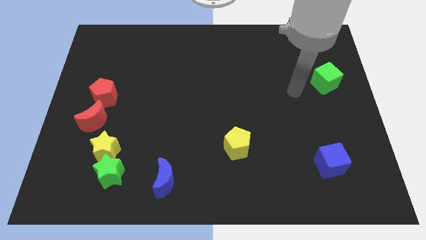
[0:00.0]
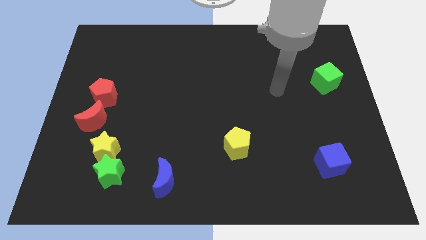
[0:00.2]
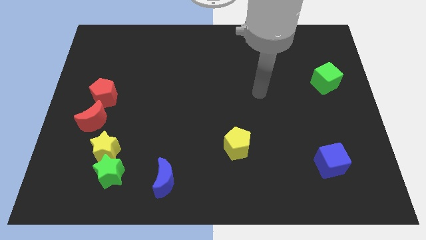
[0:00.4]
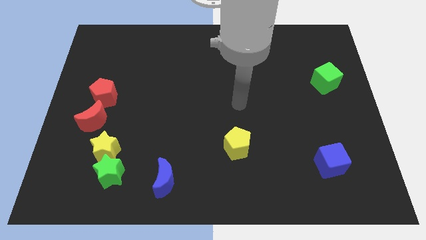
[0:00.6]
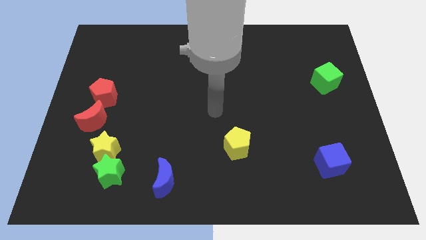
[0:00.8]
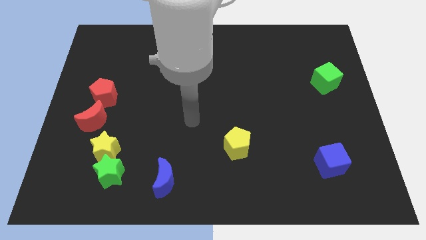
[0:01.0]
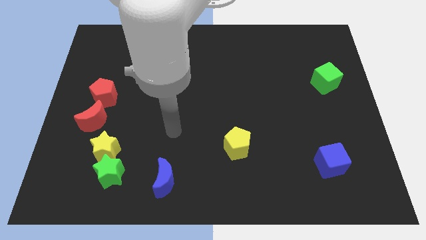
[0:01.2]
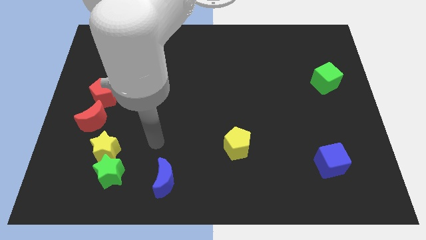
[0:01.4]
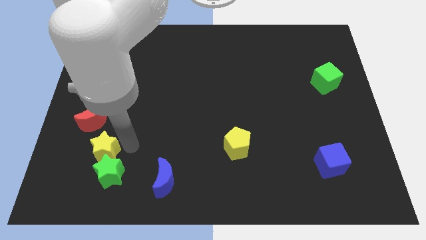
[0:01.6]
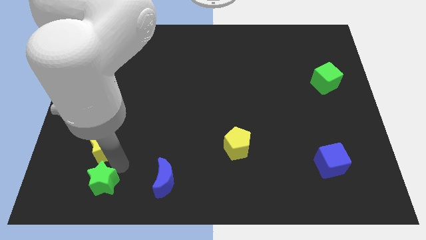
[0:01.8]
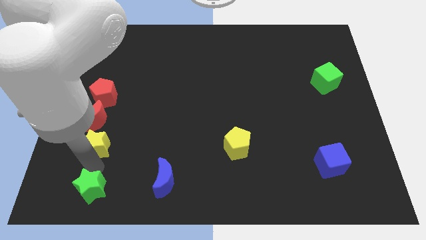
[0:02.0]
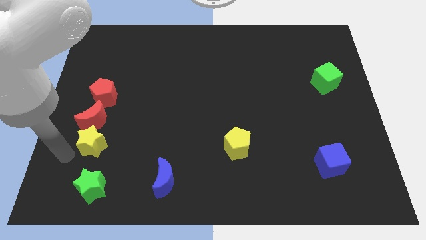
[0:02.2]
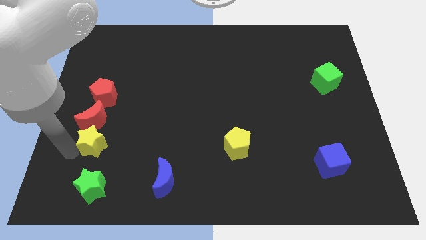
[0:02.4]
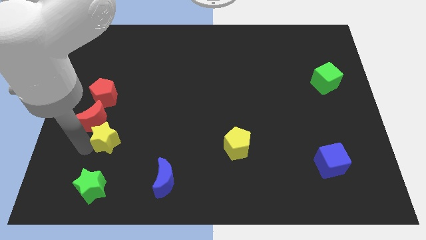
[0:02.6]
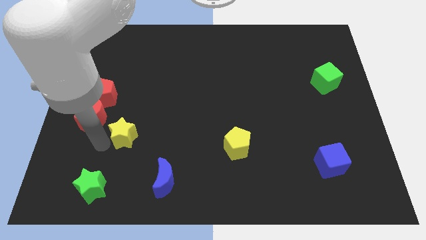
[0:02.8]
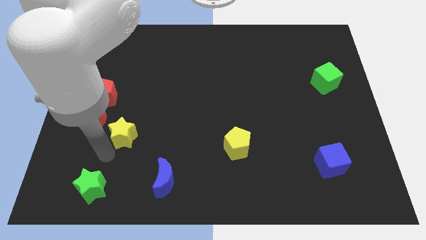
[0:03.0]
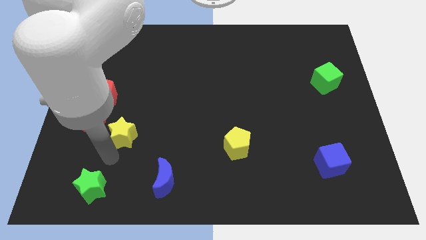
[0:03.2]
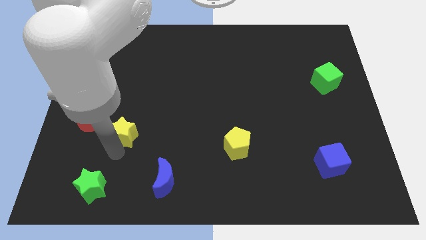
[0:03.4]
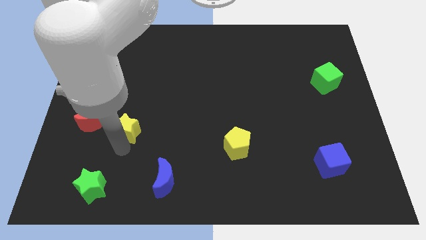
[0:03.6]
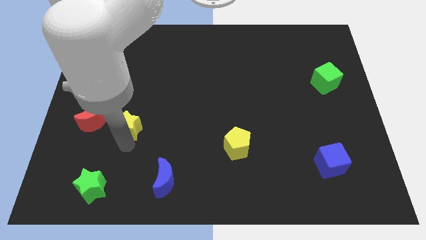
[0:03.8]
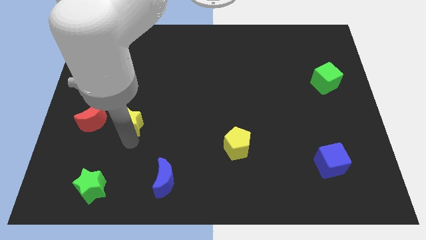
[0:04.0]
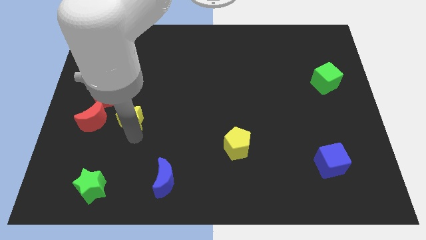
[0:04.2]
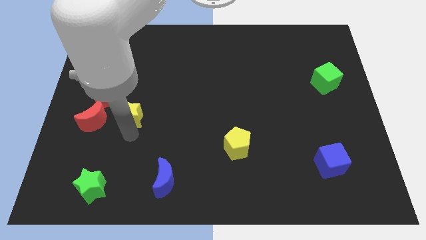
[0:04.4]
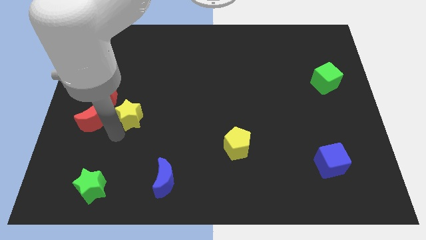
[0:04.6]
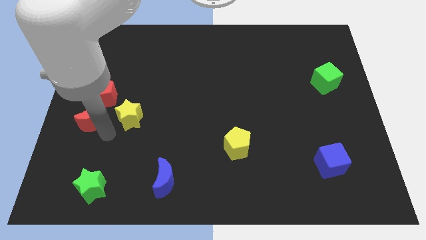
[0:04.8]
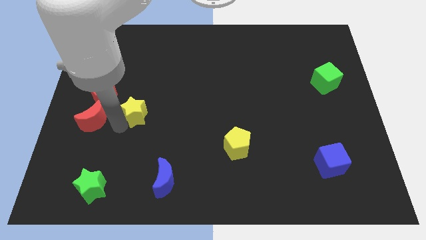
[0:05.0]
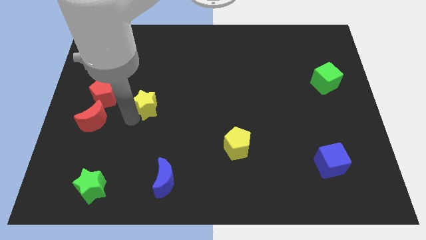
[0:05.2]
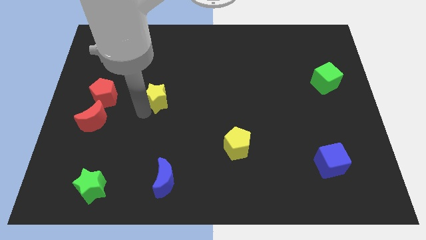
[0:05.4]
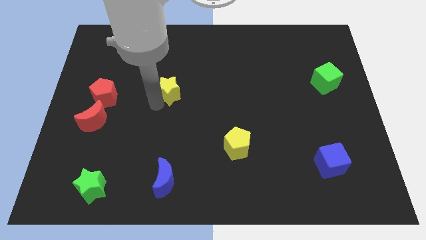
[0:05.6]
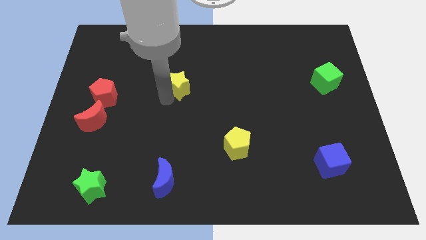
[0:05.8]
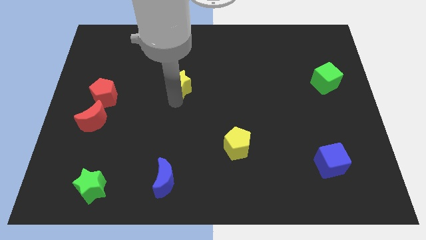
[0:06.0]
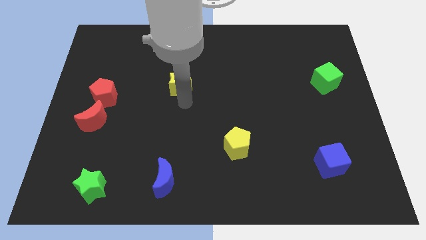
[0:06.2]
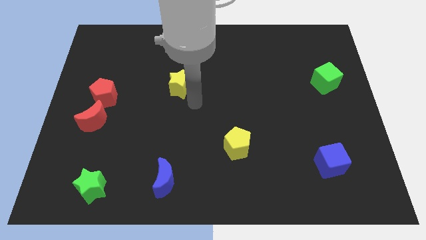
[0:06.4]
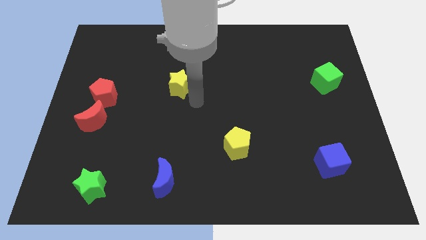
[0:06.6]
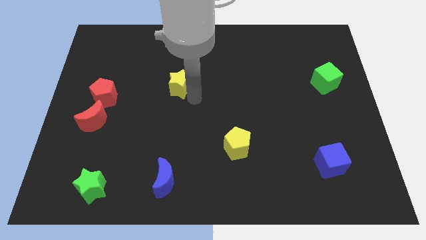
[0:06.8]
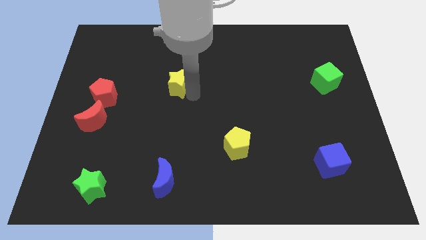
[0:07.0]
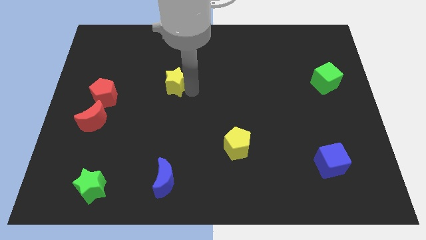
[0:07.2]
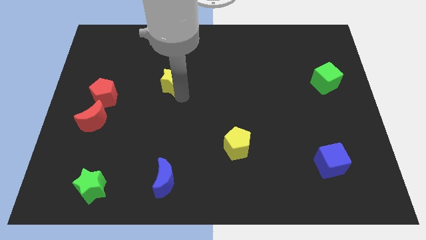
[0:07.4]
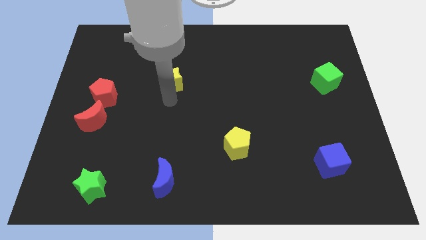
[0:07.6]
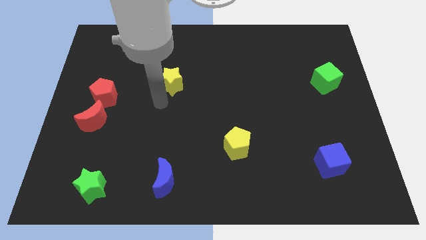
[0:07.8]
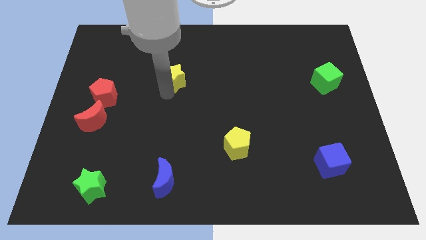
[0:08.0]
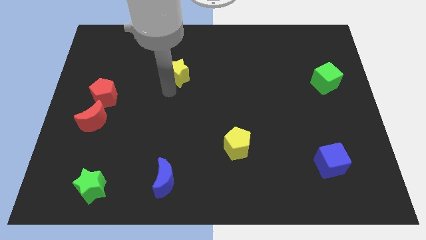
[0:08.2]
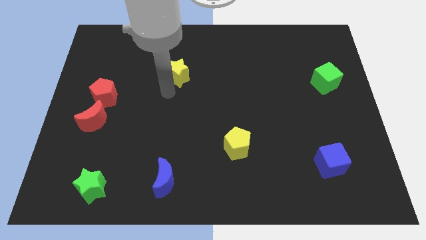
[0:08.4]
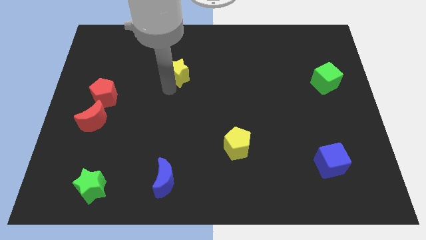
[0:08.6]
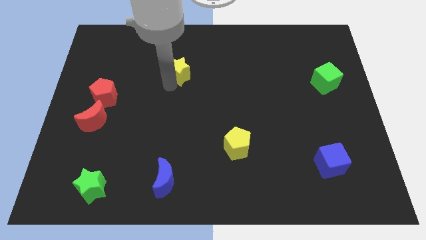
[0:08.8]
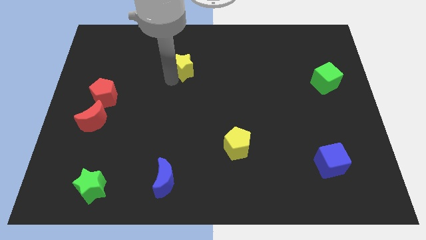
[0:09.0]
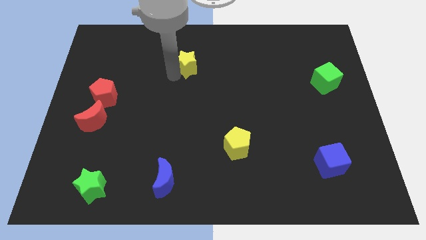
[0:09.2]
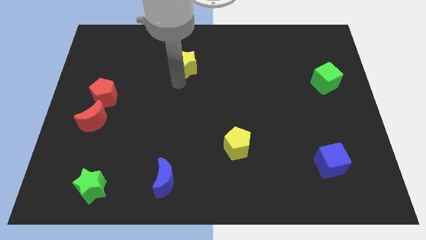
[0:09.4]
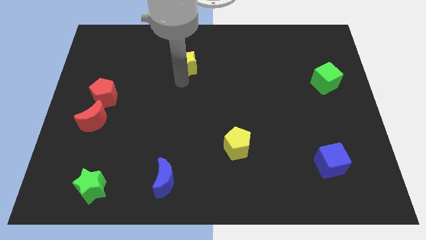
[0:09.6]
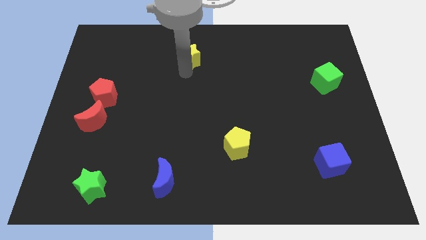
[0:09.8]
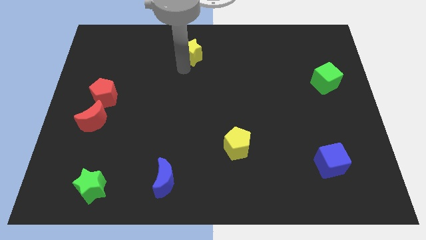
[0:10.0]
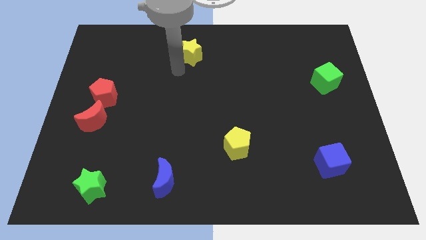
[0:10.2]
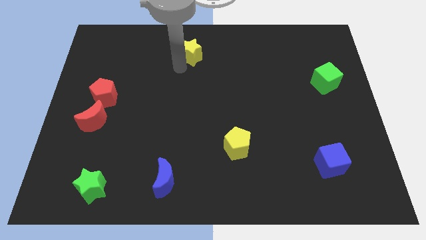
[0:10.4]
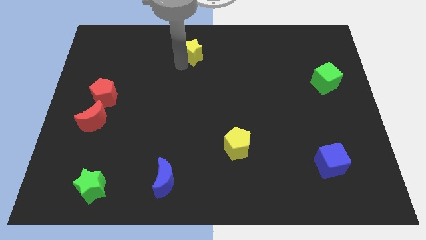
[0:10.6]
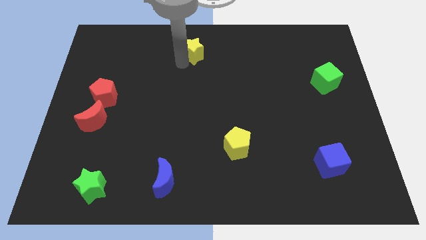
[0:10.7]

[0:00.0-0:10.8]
put the yellow star to the towards your base

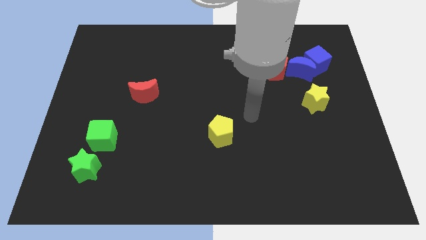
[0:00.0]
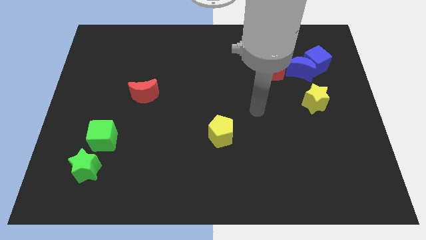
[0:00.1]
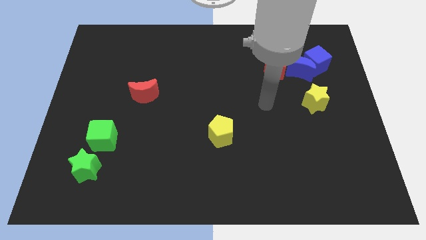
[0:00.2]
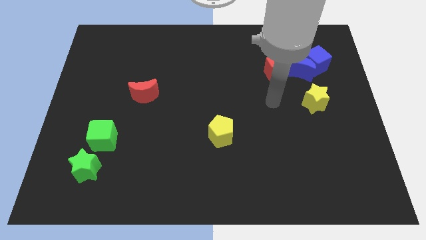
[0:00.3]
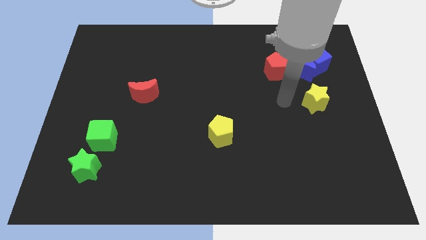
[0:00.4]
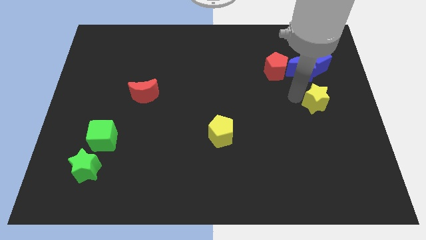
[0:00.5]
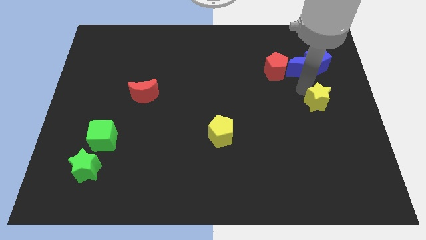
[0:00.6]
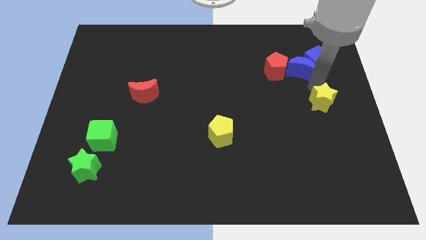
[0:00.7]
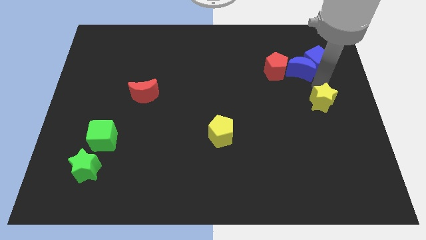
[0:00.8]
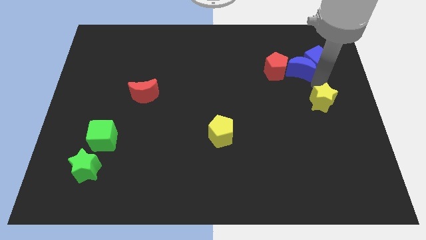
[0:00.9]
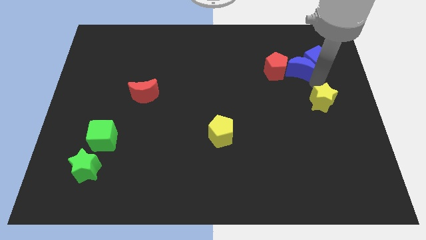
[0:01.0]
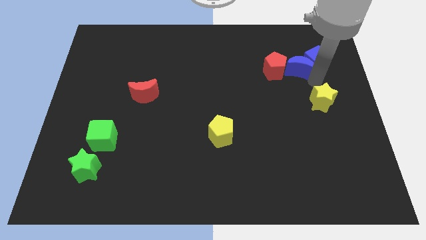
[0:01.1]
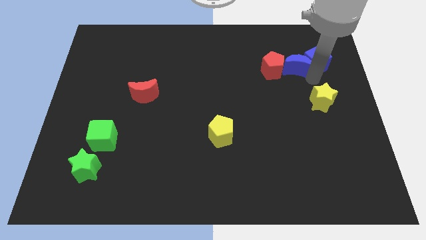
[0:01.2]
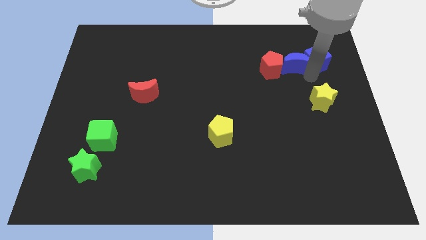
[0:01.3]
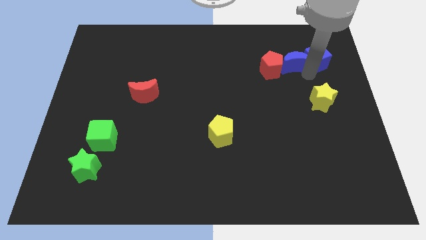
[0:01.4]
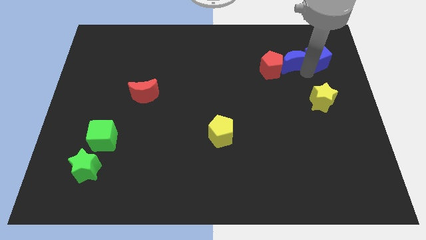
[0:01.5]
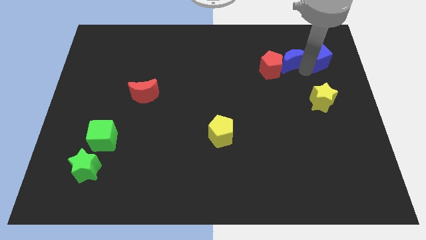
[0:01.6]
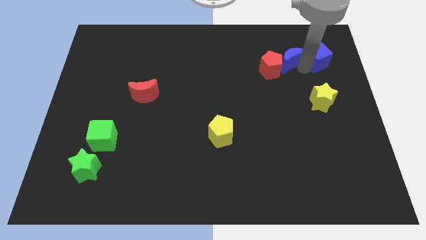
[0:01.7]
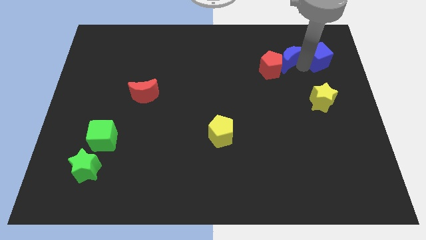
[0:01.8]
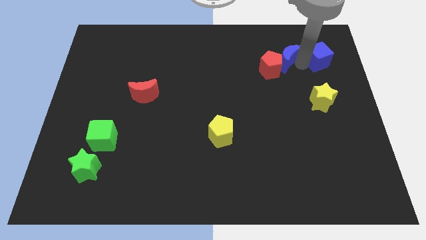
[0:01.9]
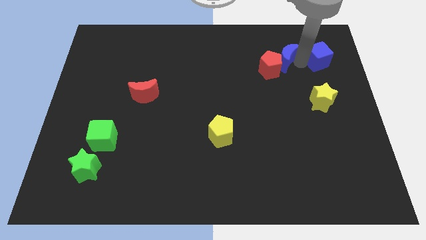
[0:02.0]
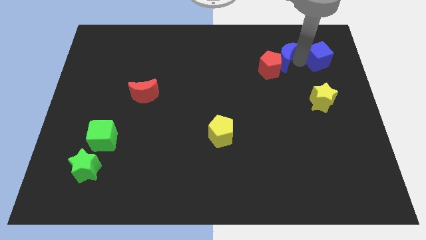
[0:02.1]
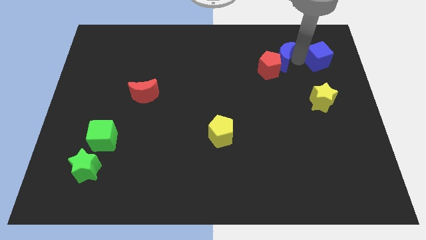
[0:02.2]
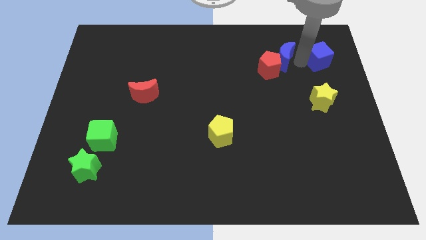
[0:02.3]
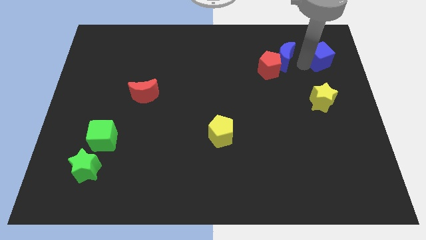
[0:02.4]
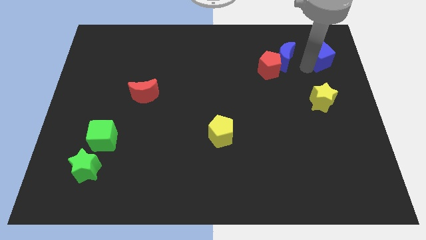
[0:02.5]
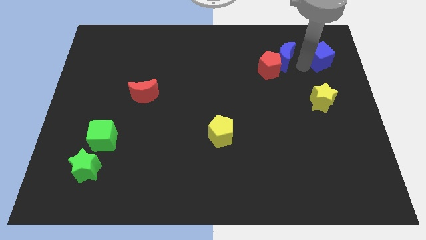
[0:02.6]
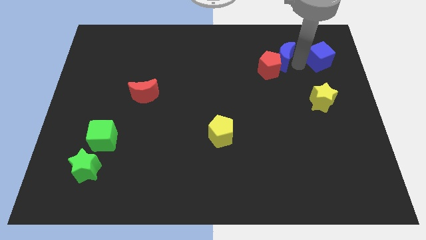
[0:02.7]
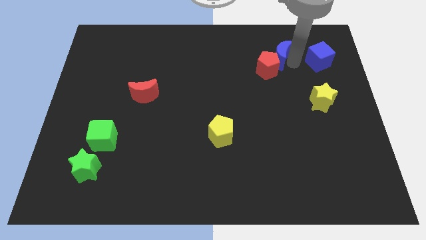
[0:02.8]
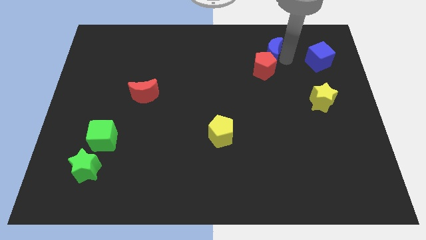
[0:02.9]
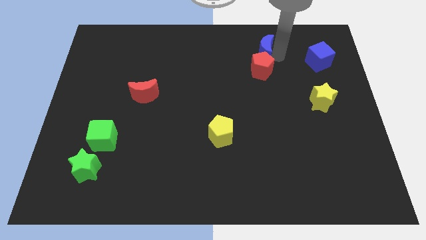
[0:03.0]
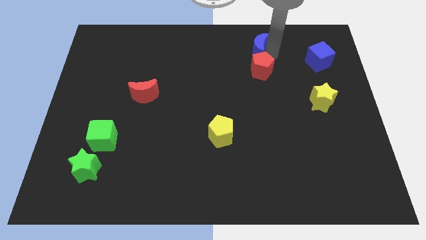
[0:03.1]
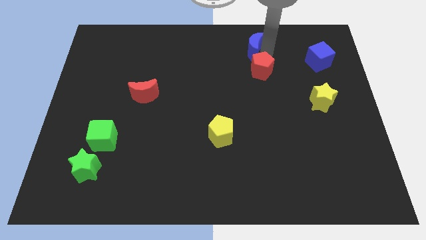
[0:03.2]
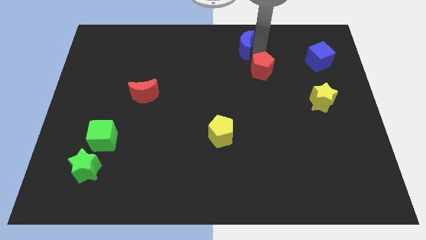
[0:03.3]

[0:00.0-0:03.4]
put the blue moon to the top
